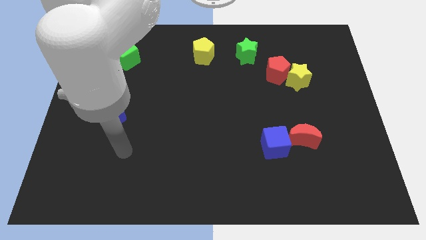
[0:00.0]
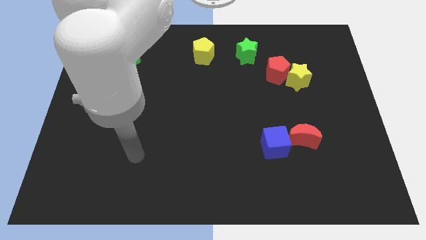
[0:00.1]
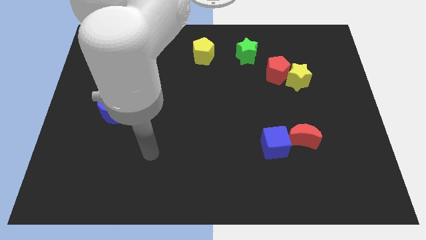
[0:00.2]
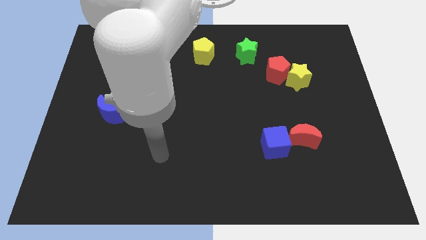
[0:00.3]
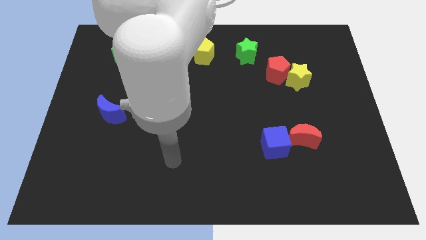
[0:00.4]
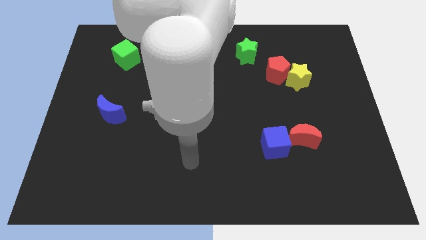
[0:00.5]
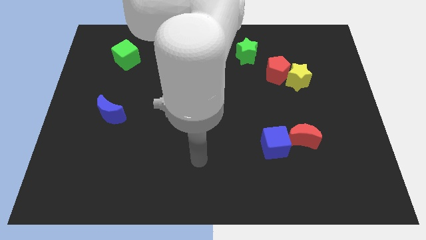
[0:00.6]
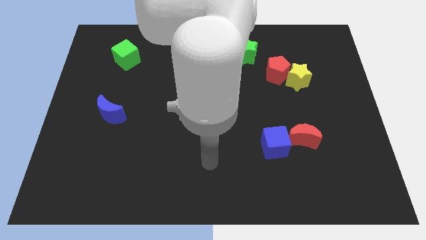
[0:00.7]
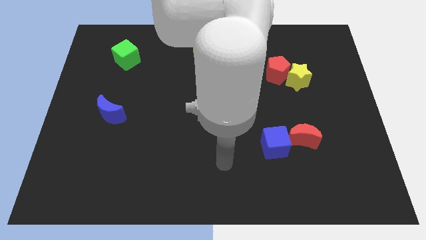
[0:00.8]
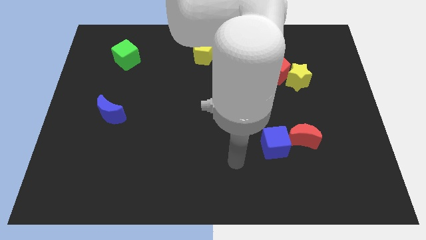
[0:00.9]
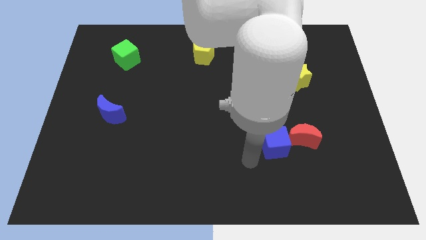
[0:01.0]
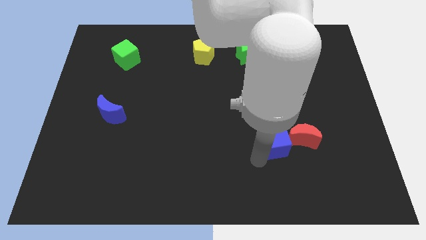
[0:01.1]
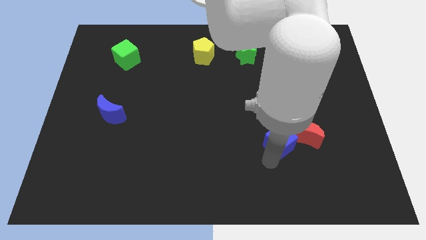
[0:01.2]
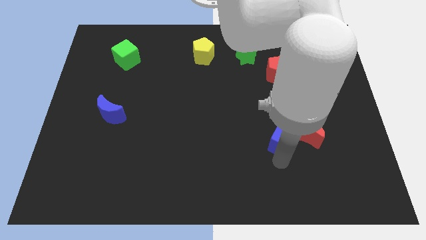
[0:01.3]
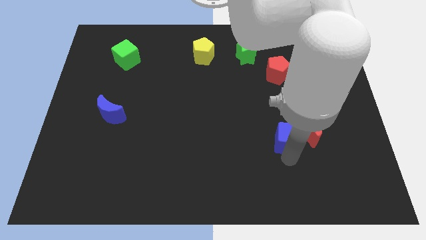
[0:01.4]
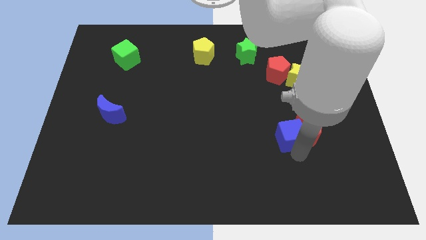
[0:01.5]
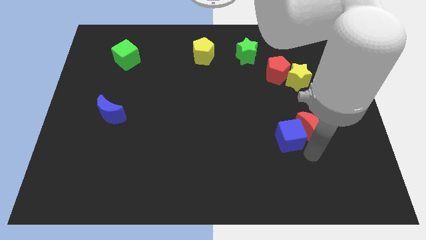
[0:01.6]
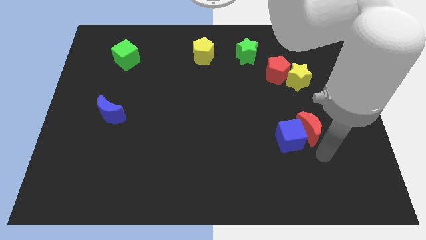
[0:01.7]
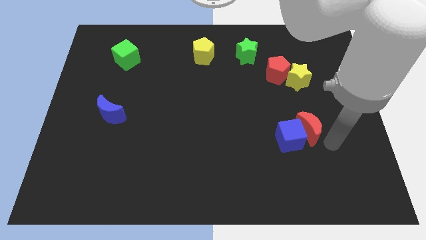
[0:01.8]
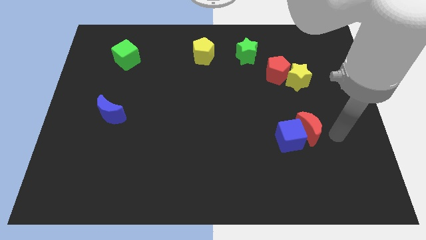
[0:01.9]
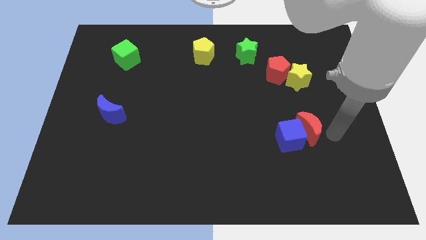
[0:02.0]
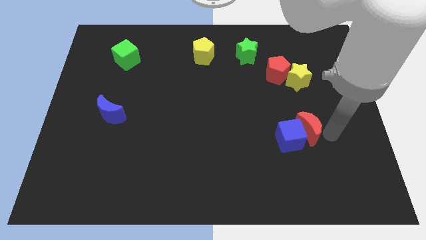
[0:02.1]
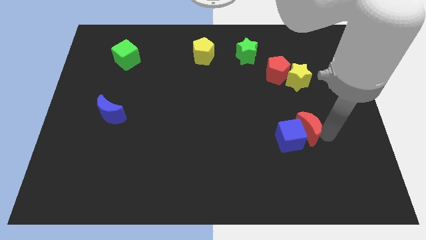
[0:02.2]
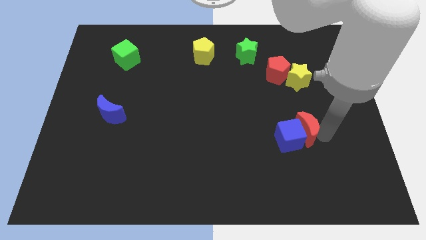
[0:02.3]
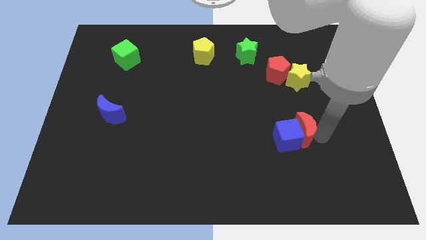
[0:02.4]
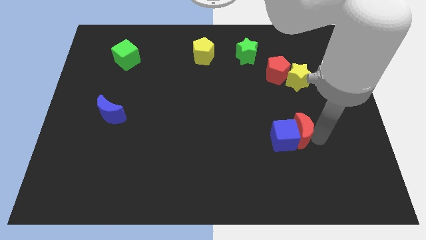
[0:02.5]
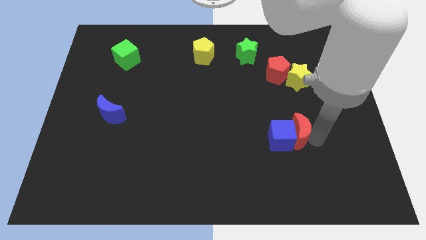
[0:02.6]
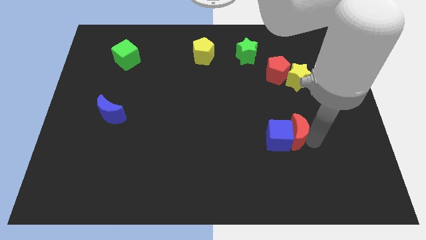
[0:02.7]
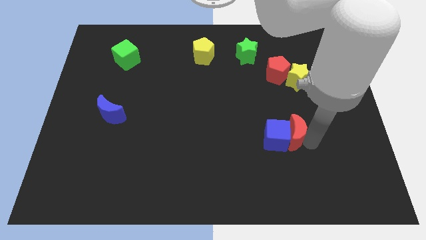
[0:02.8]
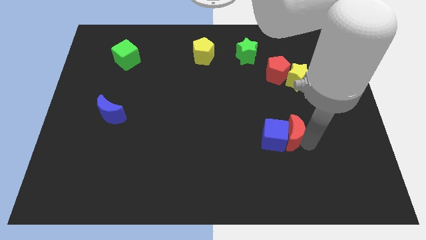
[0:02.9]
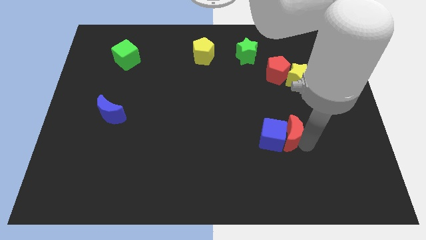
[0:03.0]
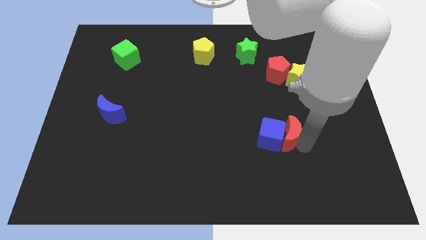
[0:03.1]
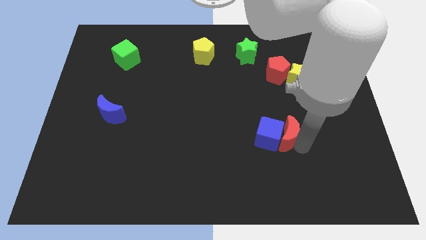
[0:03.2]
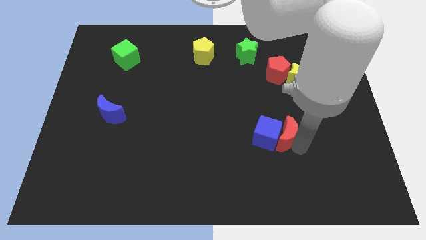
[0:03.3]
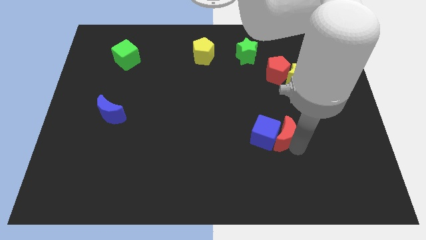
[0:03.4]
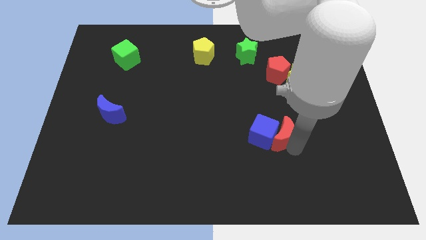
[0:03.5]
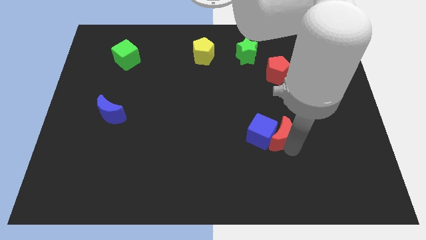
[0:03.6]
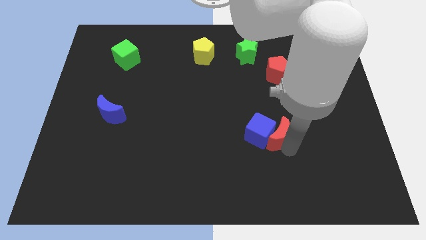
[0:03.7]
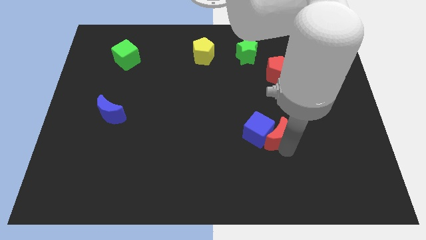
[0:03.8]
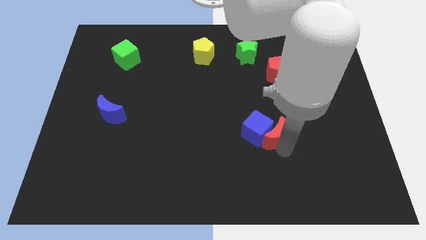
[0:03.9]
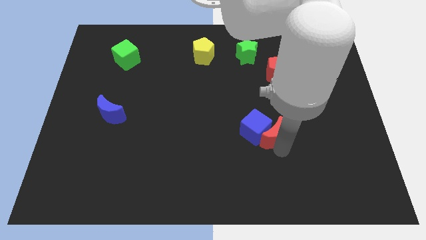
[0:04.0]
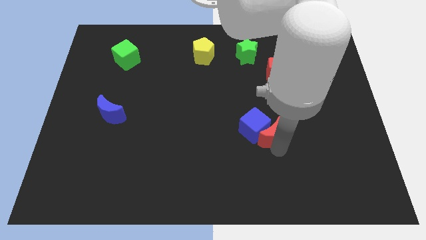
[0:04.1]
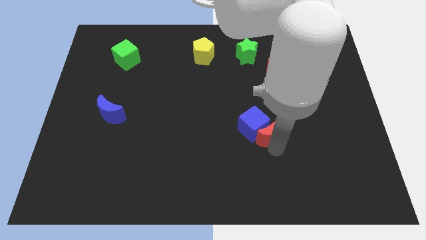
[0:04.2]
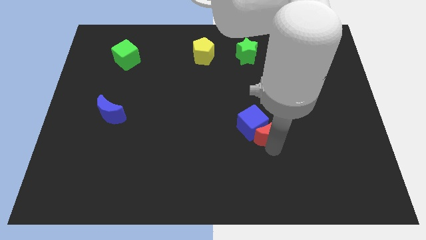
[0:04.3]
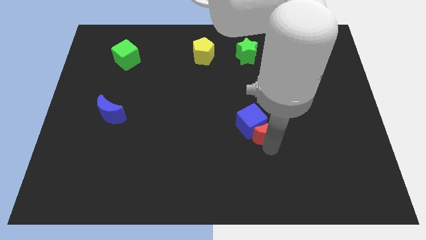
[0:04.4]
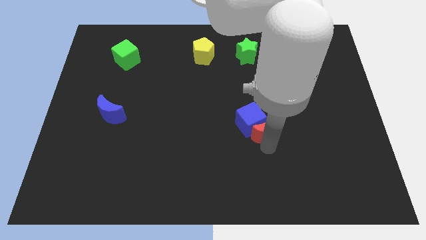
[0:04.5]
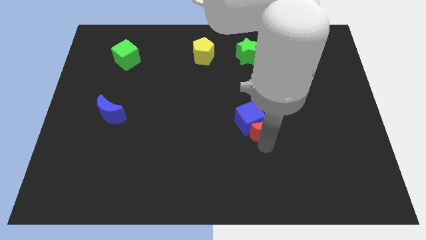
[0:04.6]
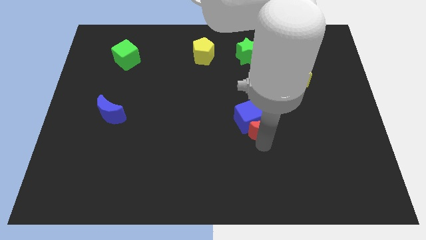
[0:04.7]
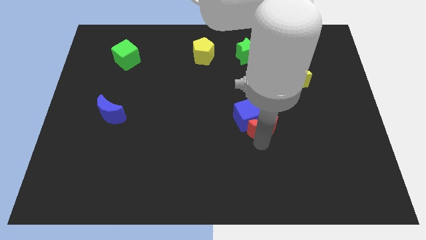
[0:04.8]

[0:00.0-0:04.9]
push the red moon up and left somewhat

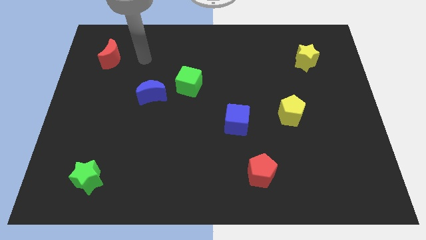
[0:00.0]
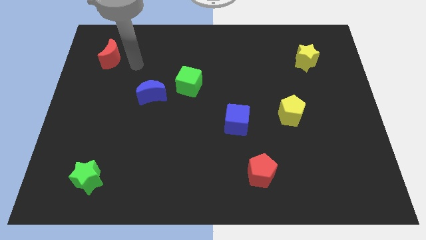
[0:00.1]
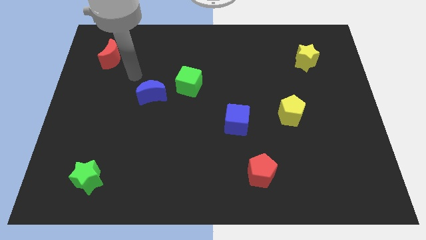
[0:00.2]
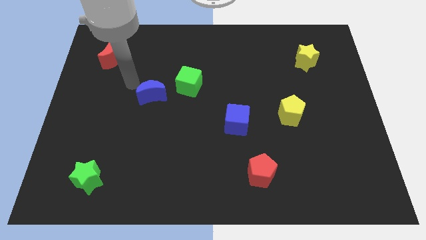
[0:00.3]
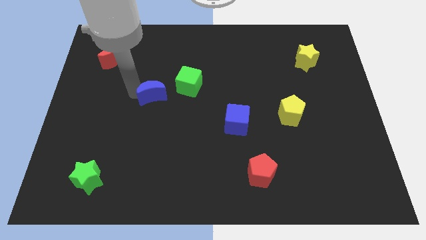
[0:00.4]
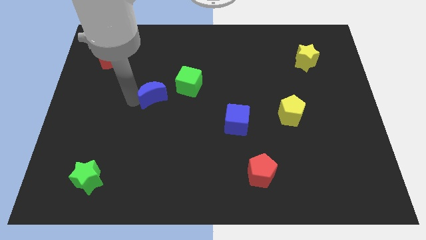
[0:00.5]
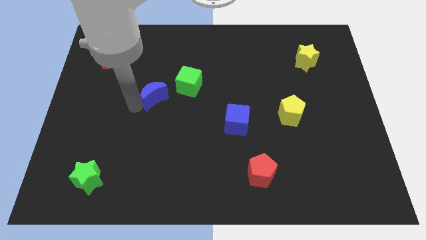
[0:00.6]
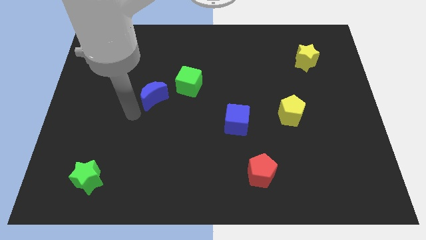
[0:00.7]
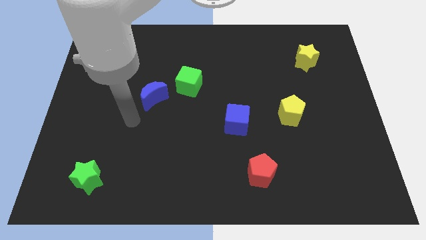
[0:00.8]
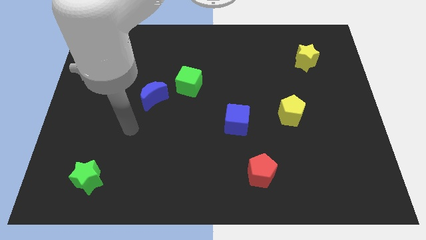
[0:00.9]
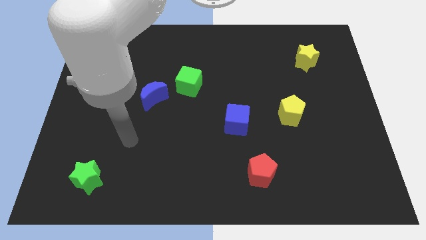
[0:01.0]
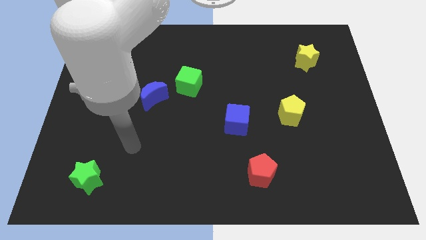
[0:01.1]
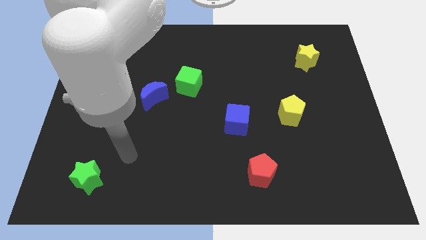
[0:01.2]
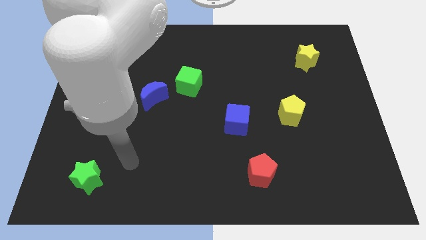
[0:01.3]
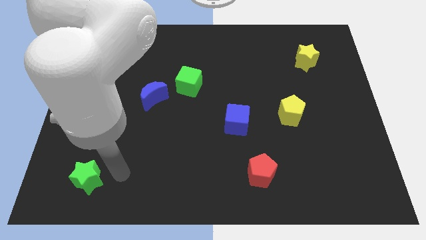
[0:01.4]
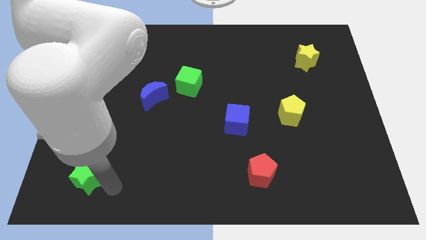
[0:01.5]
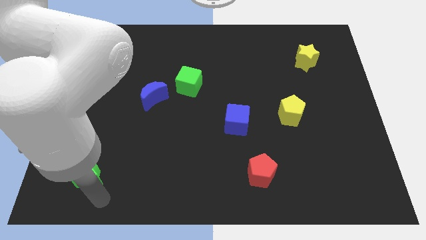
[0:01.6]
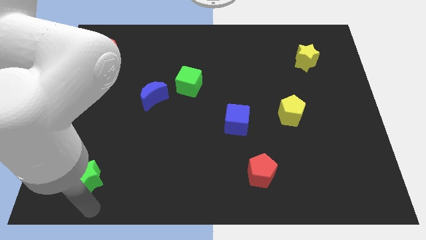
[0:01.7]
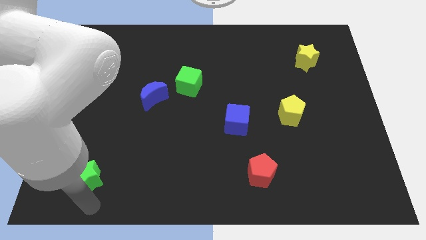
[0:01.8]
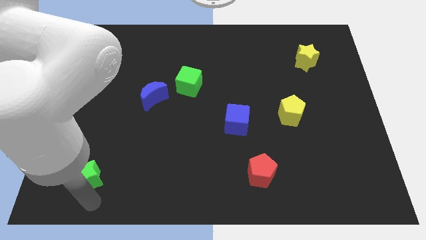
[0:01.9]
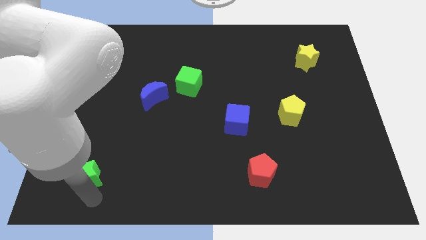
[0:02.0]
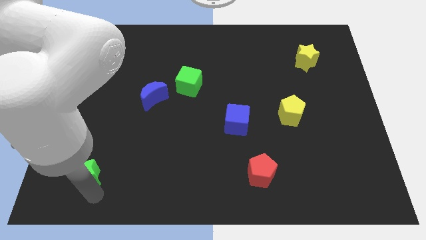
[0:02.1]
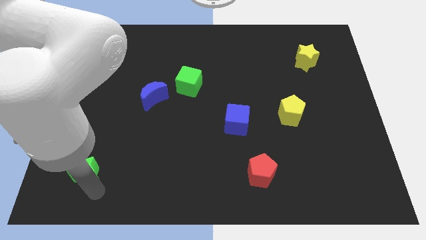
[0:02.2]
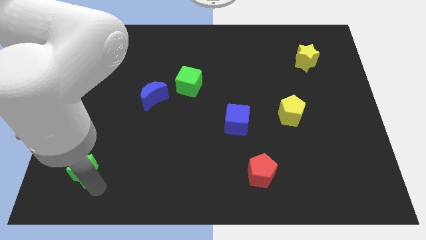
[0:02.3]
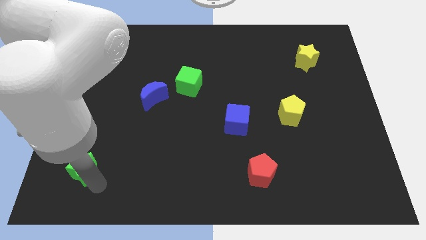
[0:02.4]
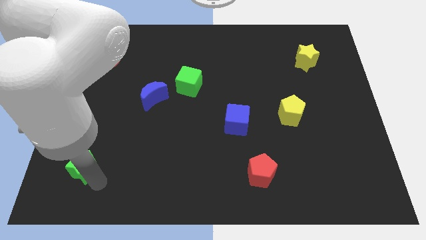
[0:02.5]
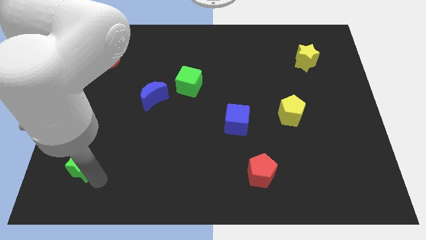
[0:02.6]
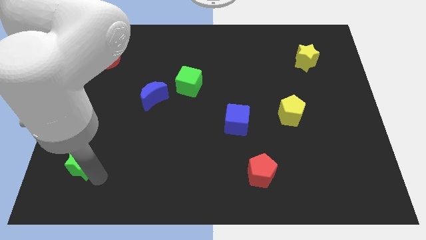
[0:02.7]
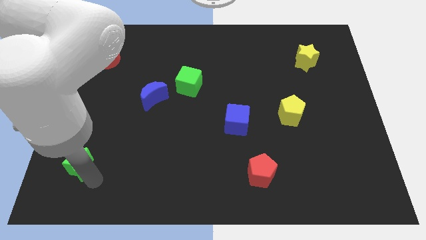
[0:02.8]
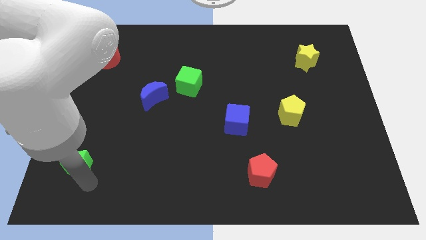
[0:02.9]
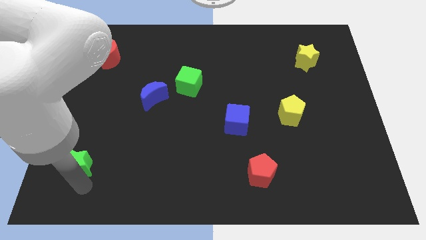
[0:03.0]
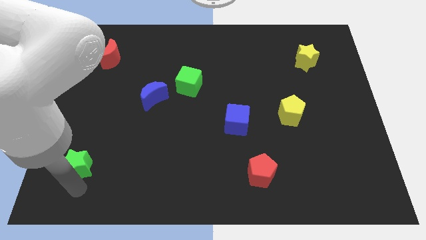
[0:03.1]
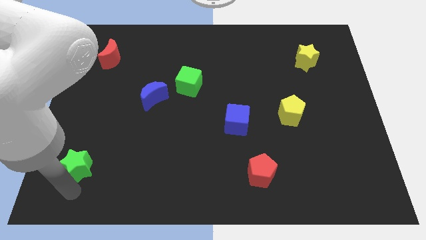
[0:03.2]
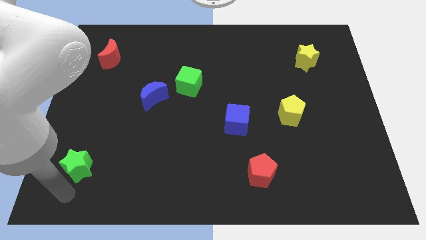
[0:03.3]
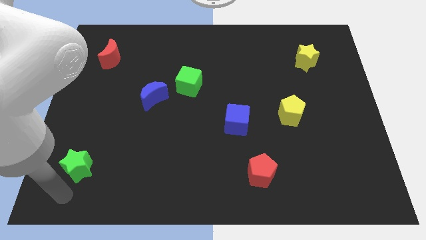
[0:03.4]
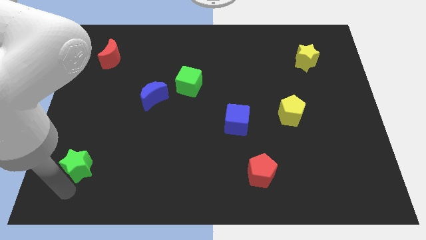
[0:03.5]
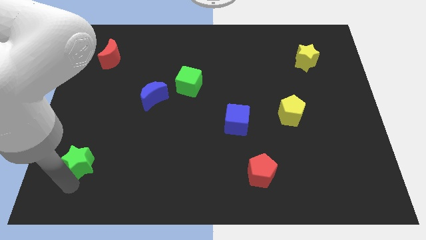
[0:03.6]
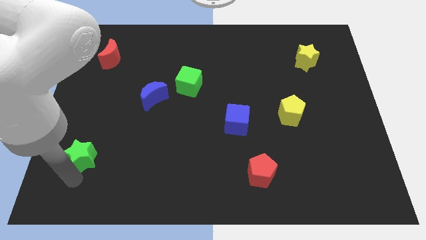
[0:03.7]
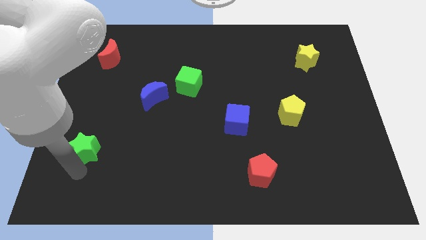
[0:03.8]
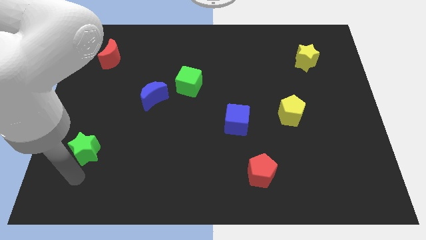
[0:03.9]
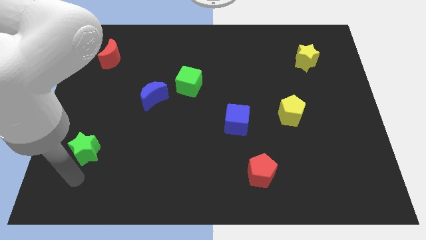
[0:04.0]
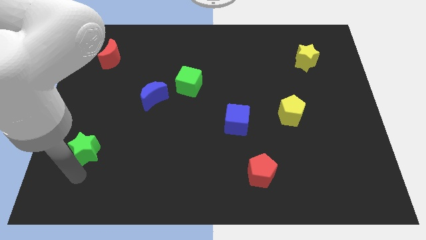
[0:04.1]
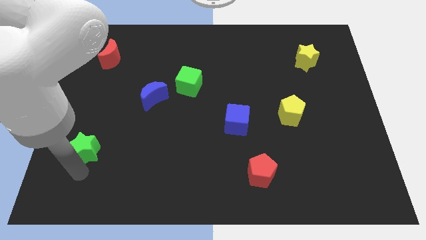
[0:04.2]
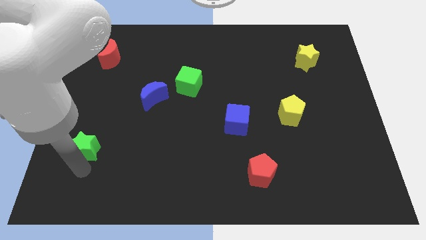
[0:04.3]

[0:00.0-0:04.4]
move the green star a little up
